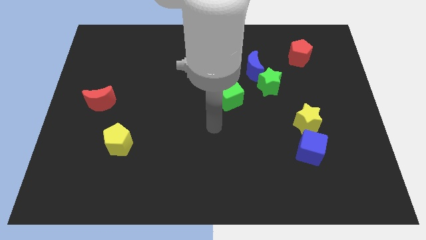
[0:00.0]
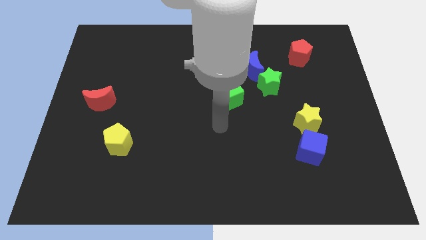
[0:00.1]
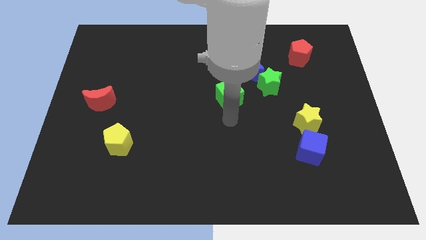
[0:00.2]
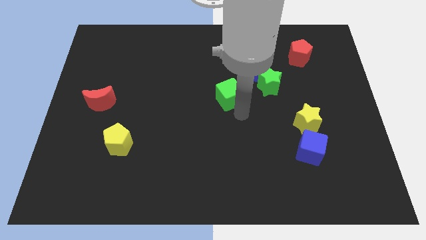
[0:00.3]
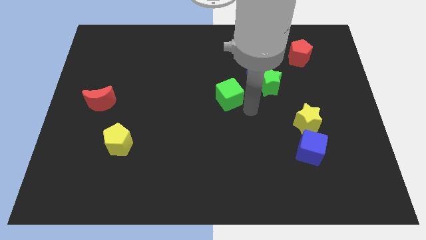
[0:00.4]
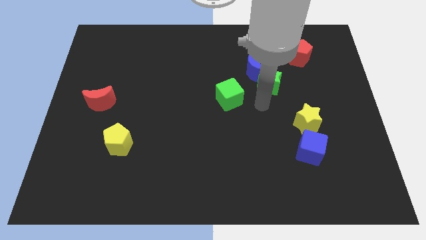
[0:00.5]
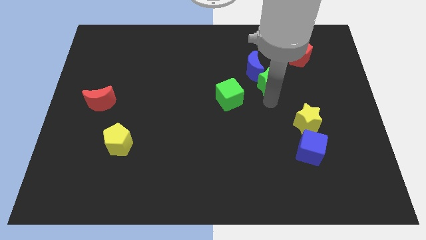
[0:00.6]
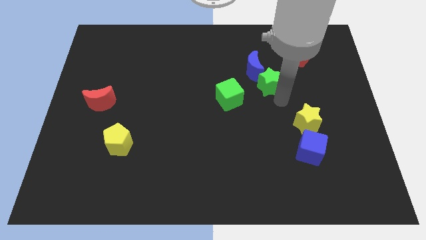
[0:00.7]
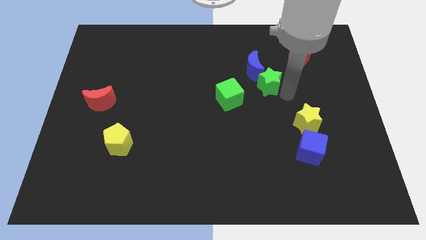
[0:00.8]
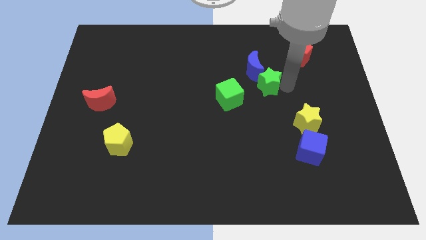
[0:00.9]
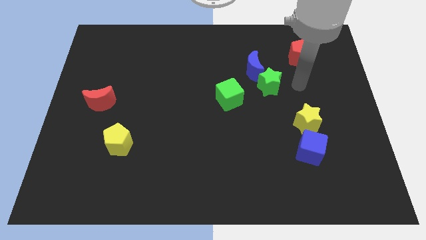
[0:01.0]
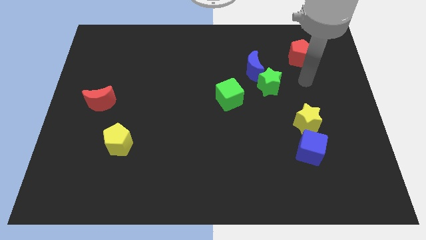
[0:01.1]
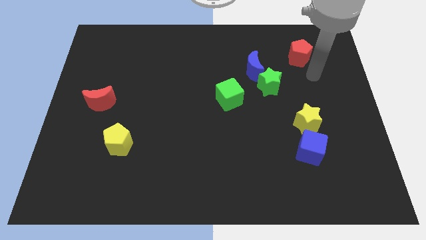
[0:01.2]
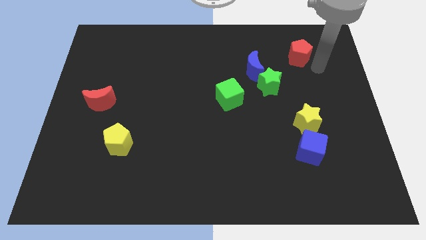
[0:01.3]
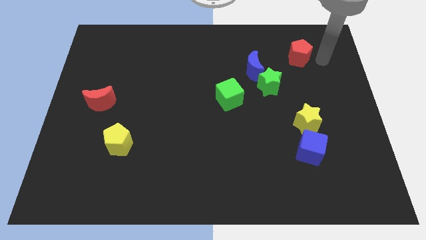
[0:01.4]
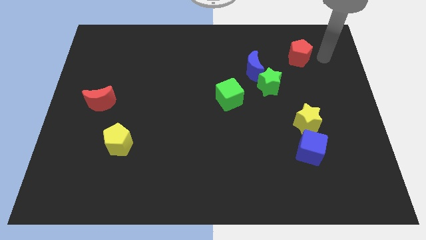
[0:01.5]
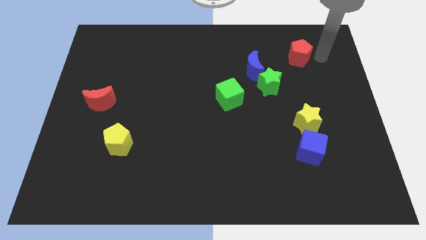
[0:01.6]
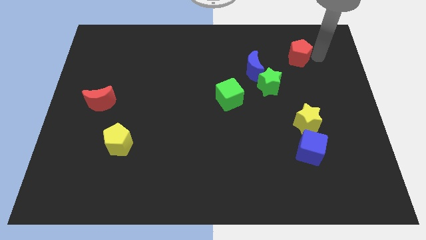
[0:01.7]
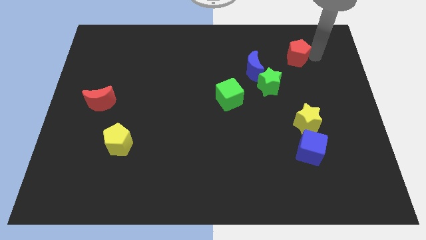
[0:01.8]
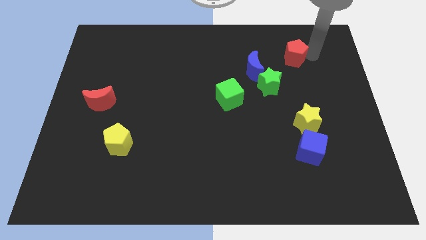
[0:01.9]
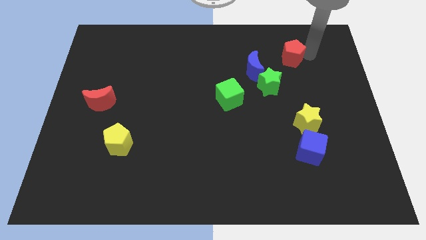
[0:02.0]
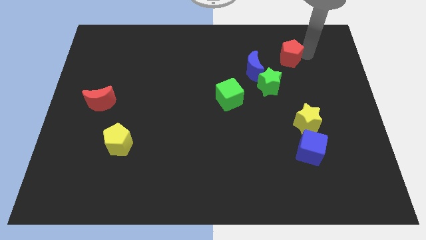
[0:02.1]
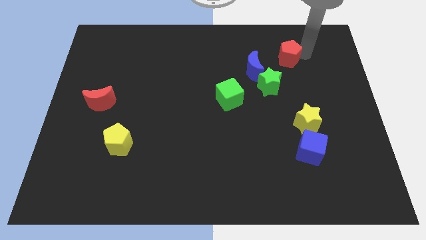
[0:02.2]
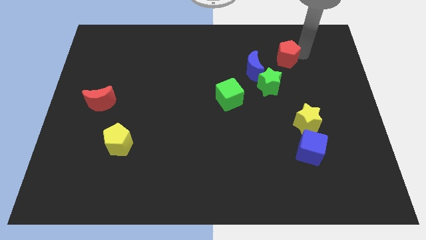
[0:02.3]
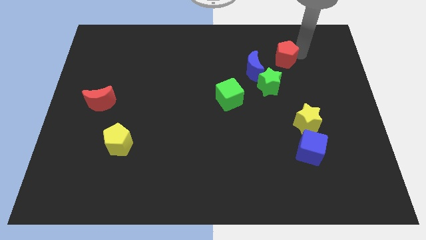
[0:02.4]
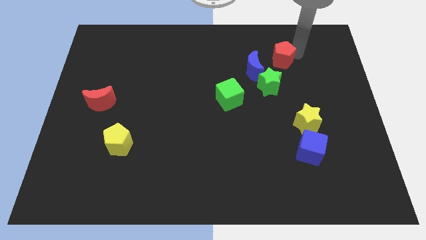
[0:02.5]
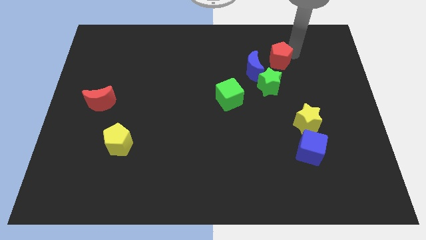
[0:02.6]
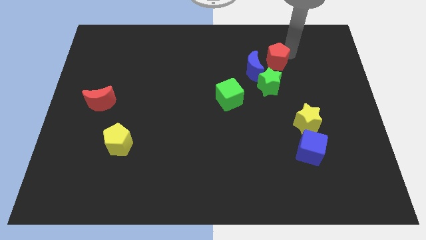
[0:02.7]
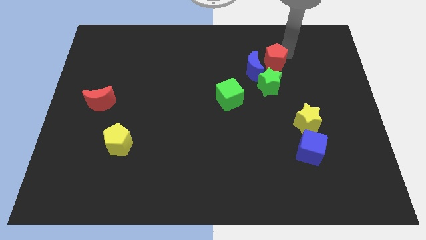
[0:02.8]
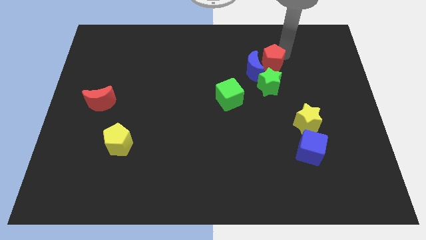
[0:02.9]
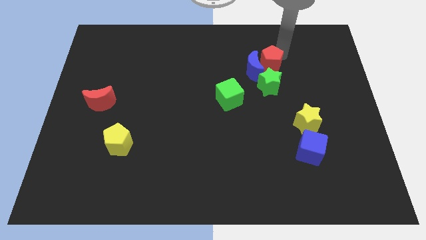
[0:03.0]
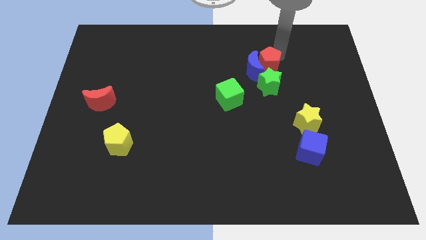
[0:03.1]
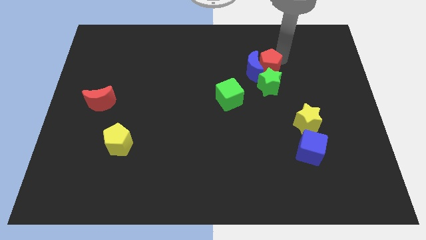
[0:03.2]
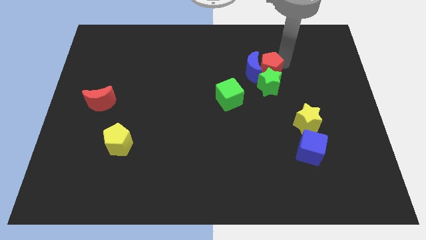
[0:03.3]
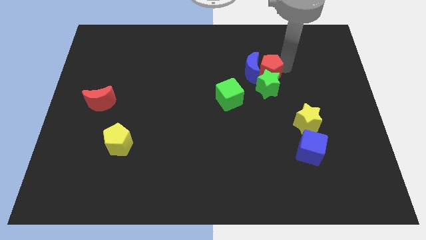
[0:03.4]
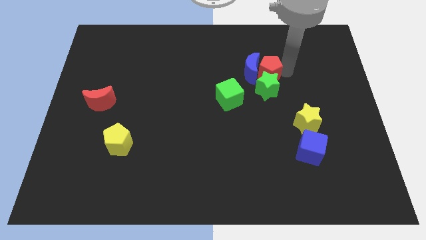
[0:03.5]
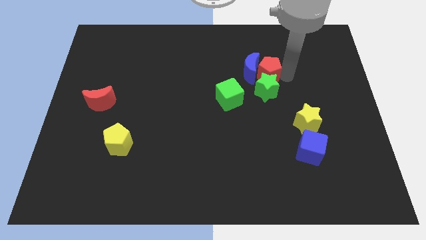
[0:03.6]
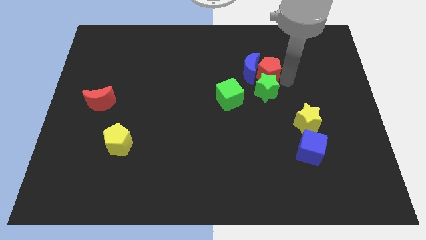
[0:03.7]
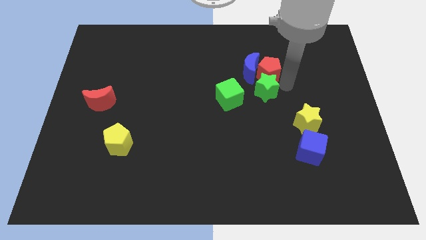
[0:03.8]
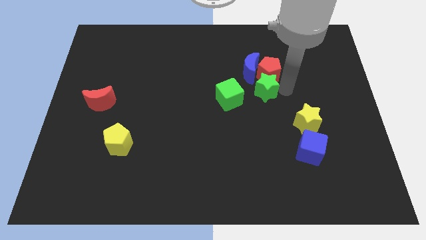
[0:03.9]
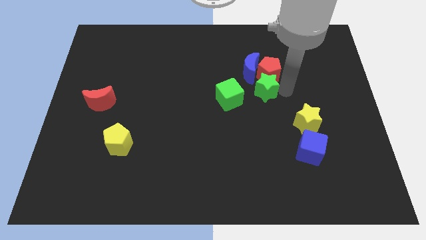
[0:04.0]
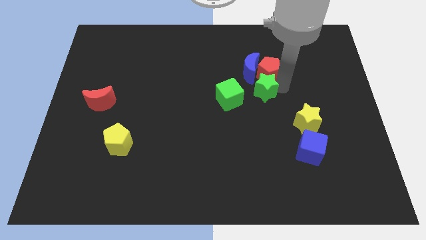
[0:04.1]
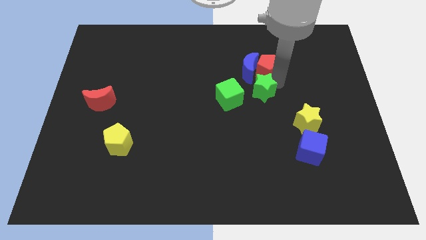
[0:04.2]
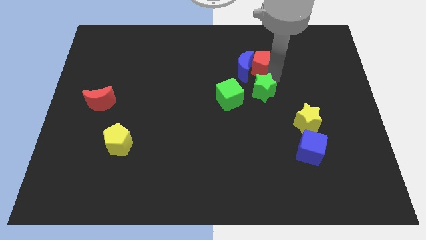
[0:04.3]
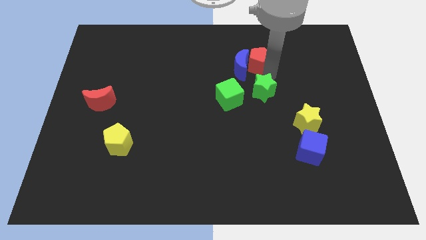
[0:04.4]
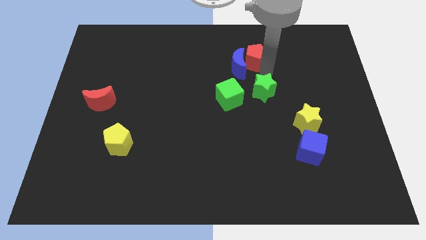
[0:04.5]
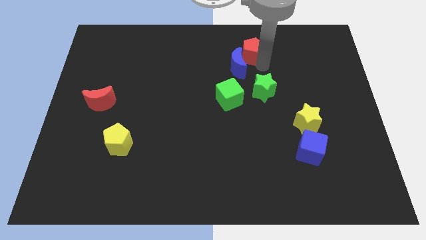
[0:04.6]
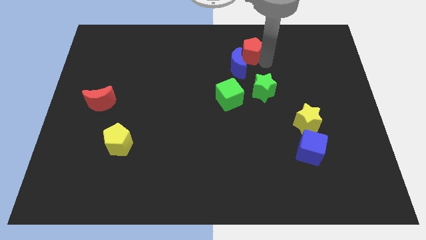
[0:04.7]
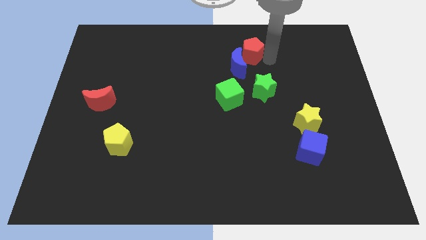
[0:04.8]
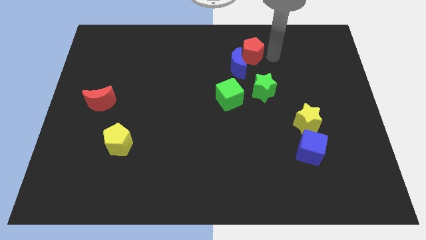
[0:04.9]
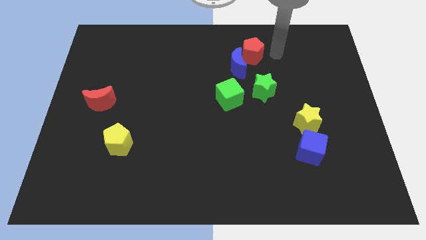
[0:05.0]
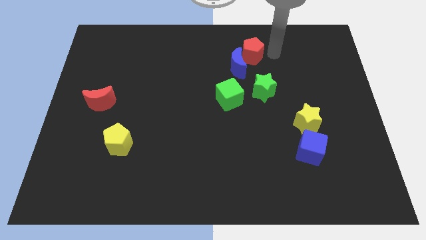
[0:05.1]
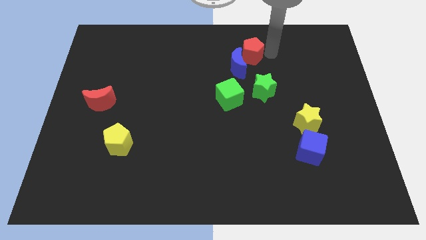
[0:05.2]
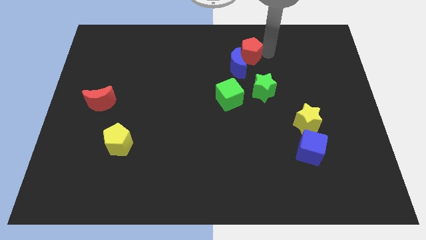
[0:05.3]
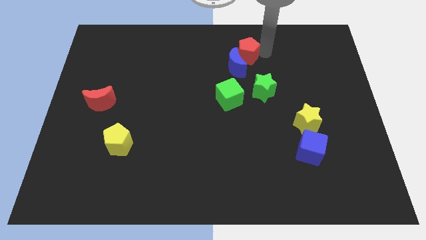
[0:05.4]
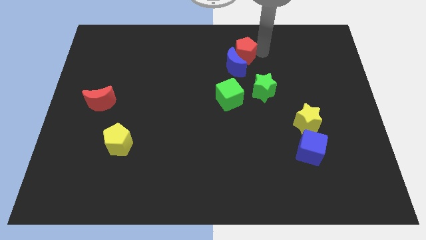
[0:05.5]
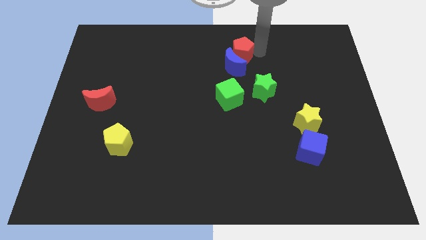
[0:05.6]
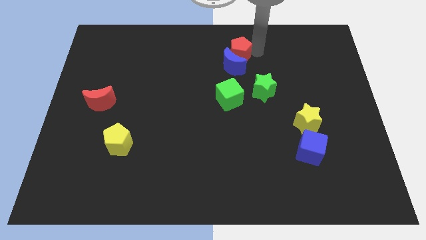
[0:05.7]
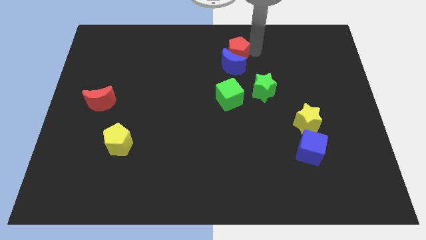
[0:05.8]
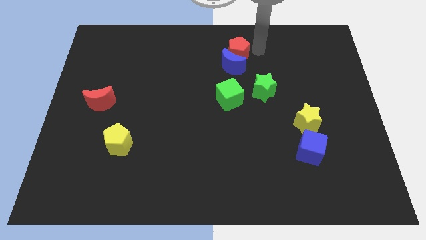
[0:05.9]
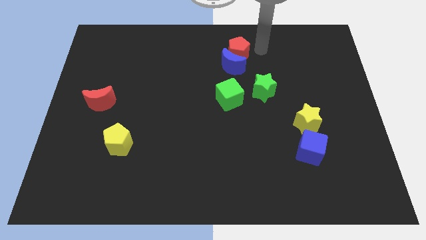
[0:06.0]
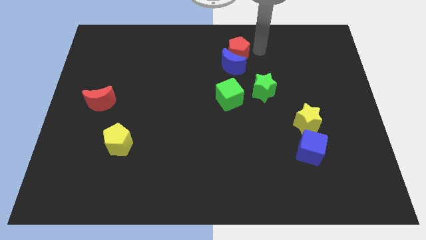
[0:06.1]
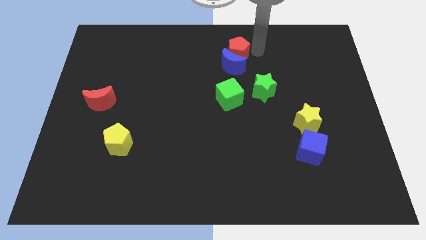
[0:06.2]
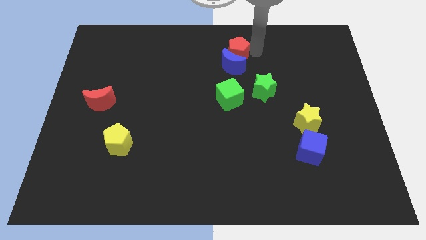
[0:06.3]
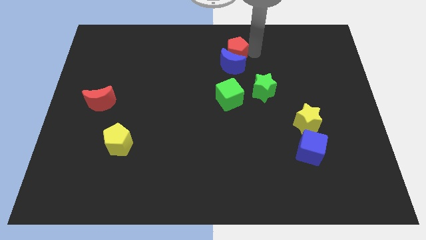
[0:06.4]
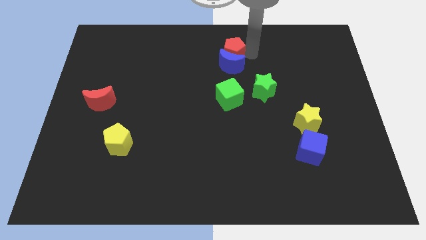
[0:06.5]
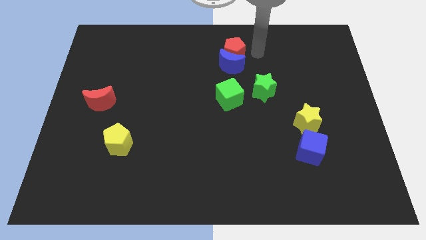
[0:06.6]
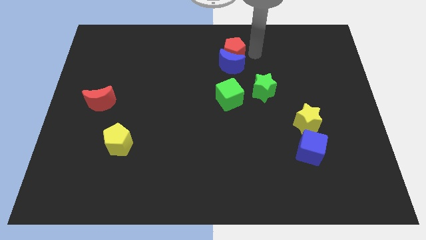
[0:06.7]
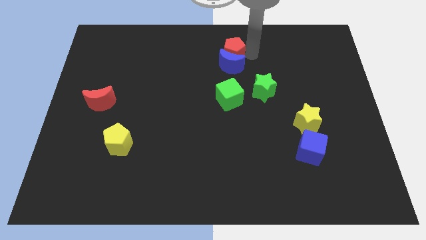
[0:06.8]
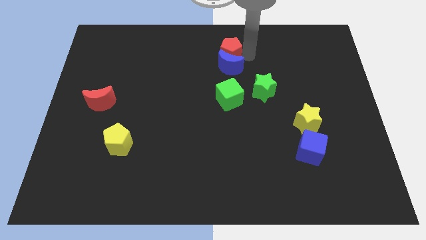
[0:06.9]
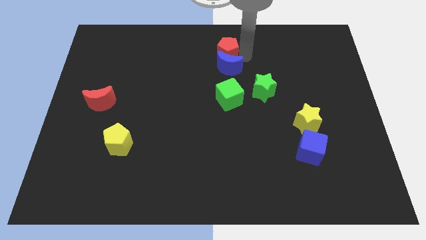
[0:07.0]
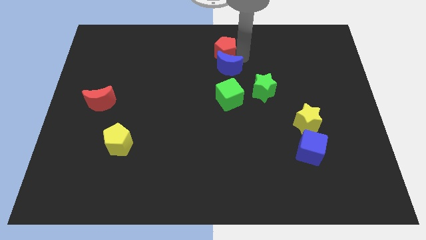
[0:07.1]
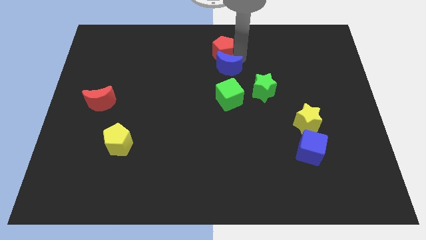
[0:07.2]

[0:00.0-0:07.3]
move the red pentagon to the left
